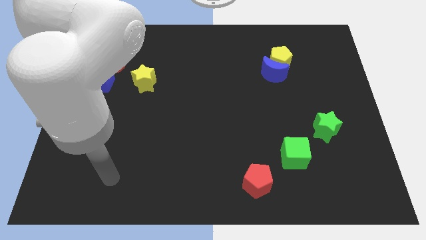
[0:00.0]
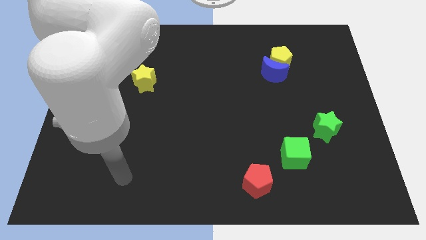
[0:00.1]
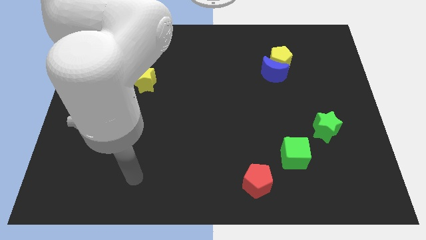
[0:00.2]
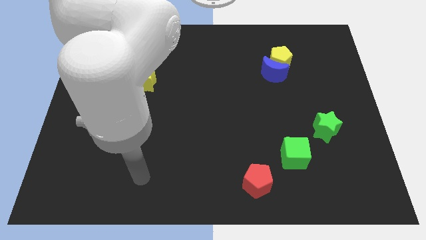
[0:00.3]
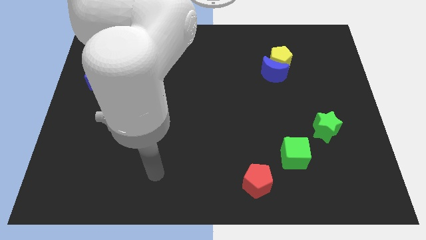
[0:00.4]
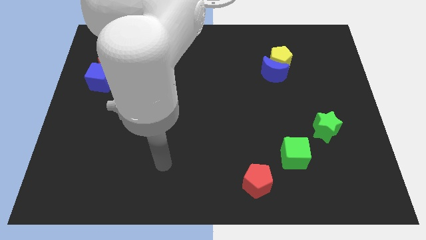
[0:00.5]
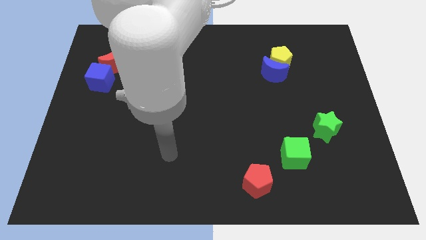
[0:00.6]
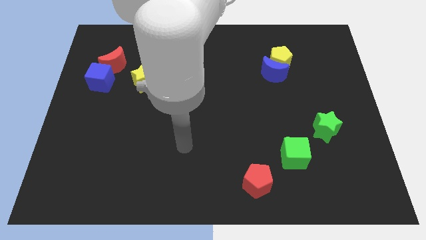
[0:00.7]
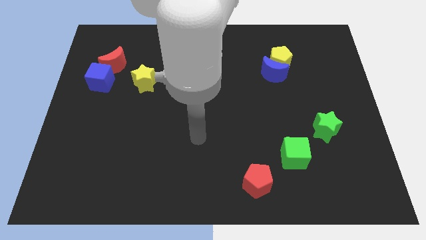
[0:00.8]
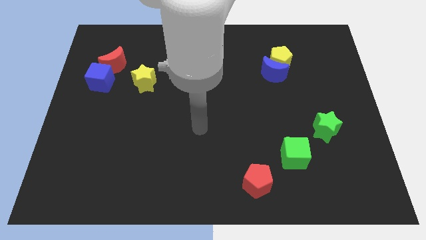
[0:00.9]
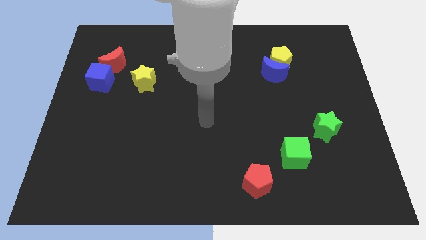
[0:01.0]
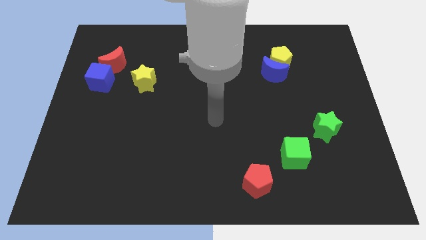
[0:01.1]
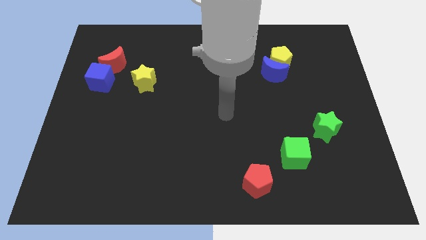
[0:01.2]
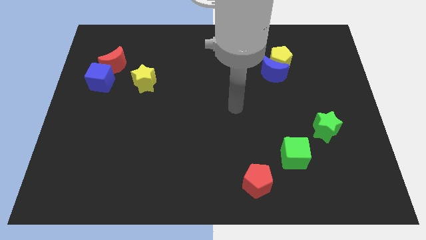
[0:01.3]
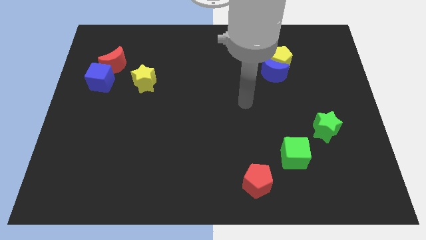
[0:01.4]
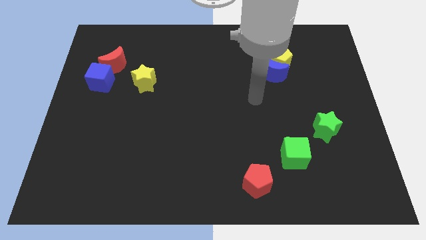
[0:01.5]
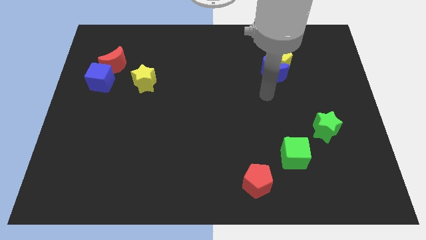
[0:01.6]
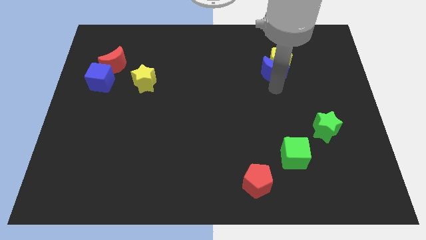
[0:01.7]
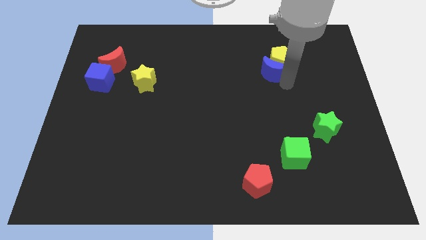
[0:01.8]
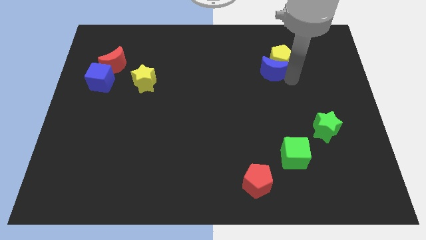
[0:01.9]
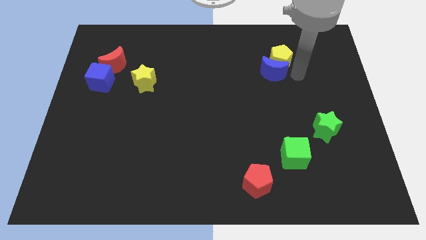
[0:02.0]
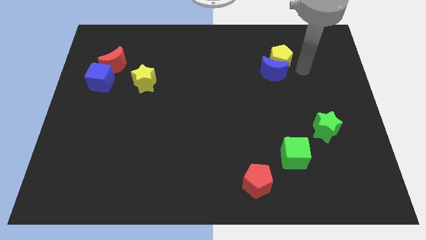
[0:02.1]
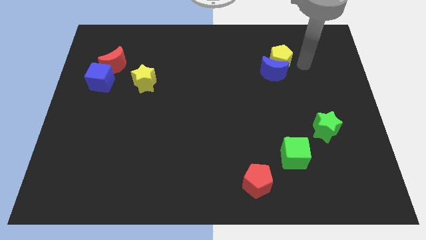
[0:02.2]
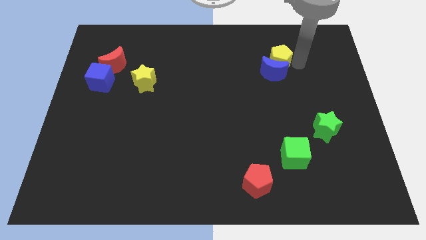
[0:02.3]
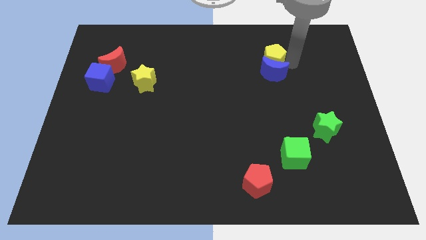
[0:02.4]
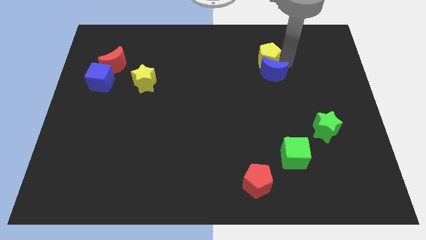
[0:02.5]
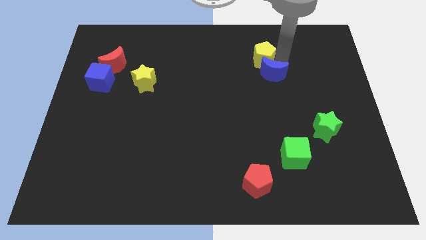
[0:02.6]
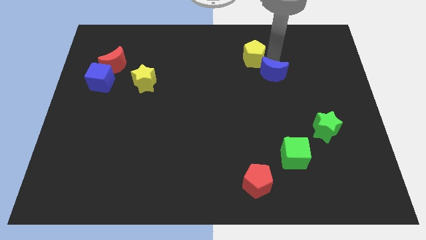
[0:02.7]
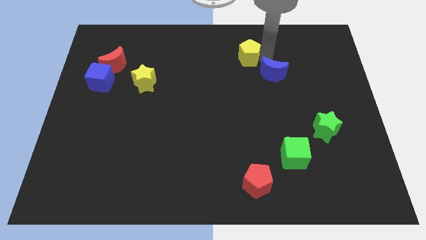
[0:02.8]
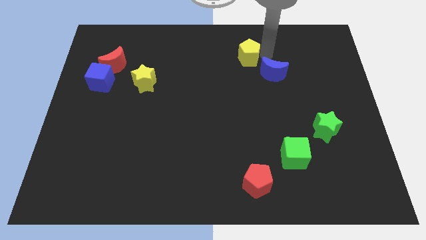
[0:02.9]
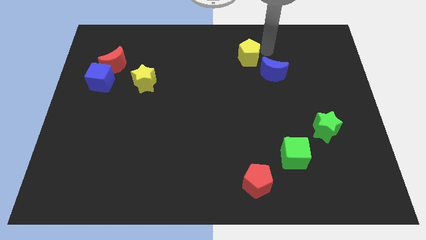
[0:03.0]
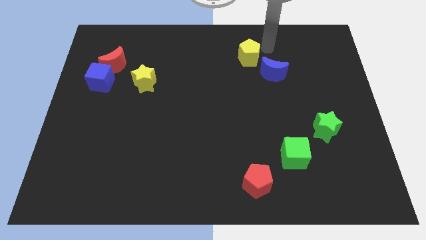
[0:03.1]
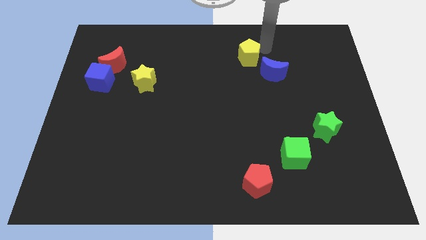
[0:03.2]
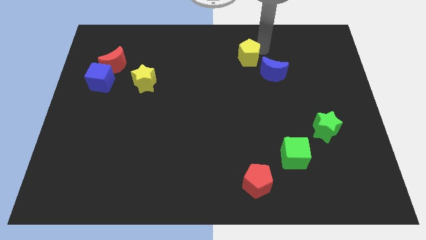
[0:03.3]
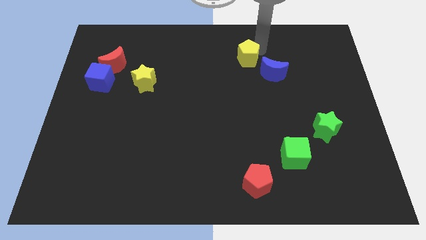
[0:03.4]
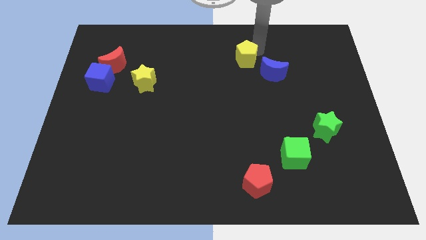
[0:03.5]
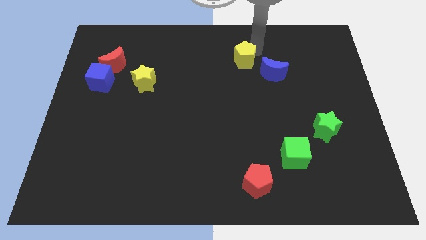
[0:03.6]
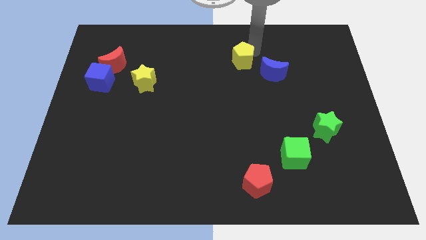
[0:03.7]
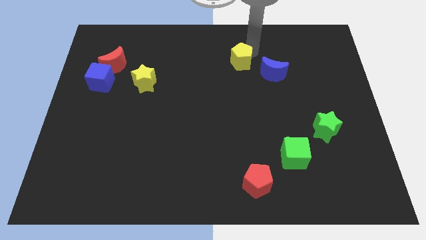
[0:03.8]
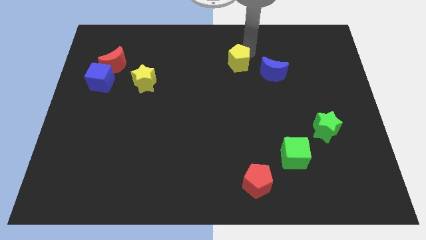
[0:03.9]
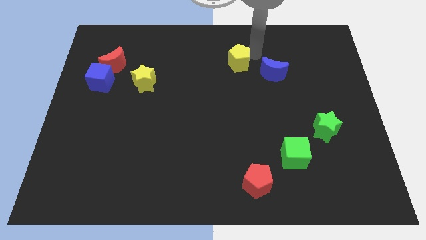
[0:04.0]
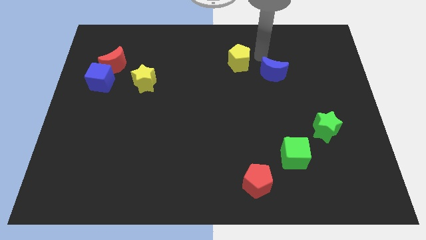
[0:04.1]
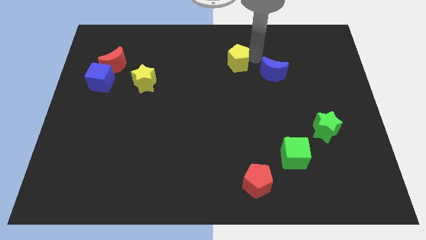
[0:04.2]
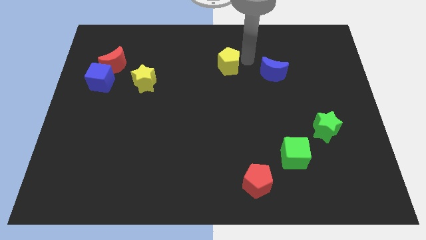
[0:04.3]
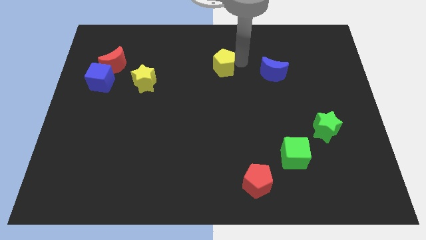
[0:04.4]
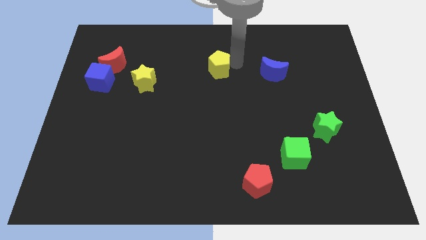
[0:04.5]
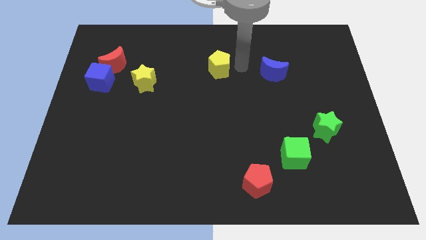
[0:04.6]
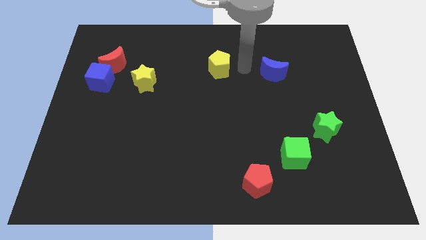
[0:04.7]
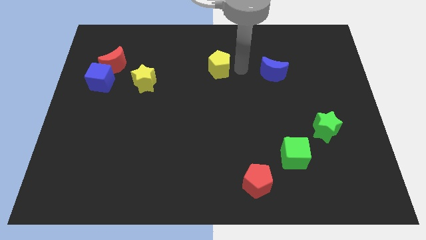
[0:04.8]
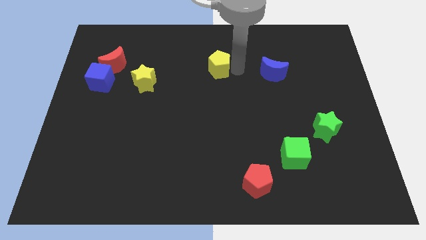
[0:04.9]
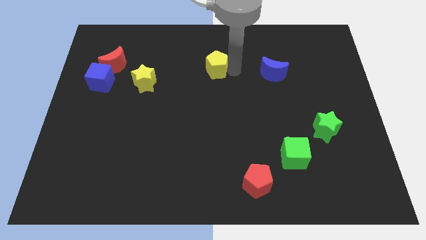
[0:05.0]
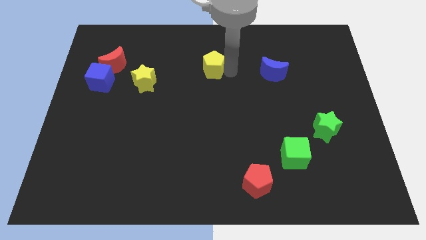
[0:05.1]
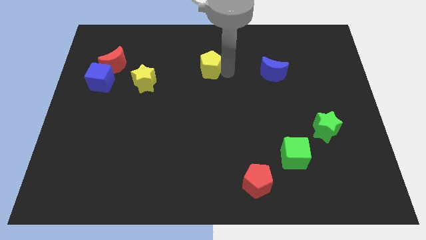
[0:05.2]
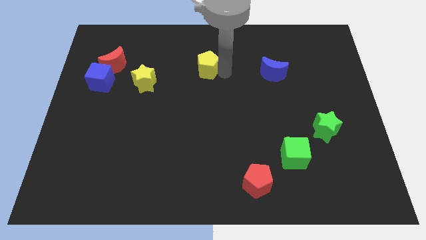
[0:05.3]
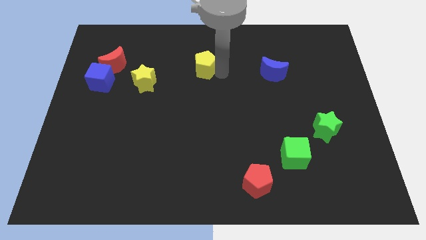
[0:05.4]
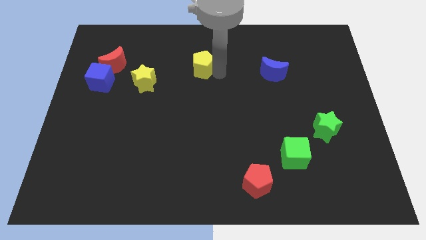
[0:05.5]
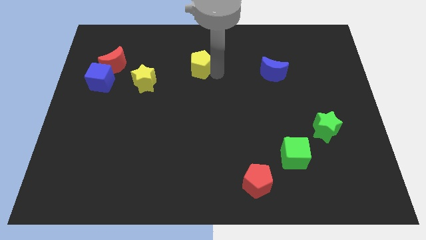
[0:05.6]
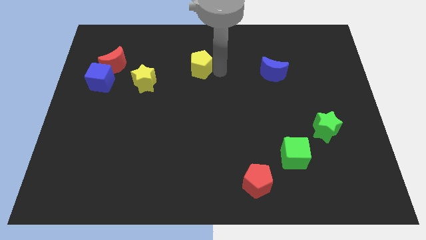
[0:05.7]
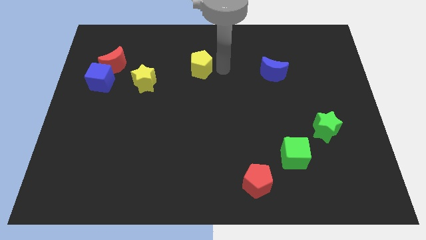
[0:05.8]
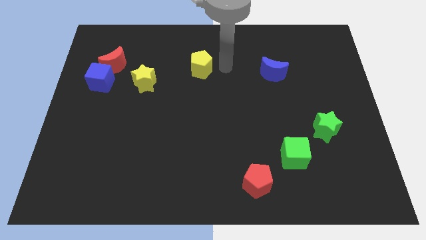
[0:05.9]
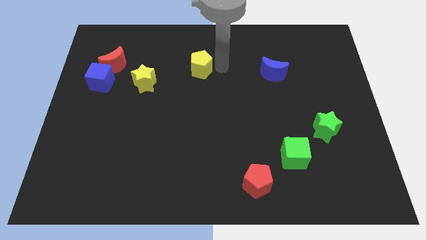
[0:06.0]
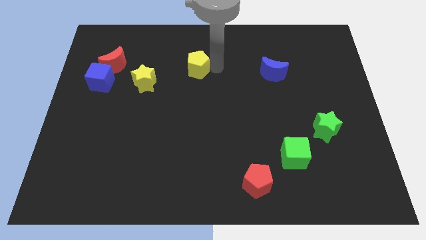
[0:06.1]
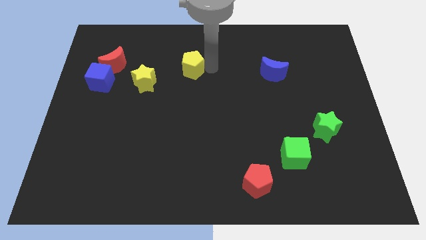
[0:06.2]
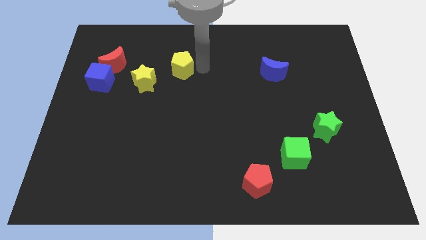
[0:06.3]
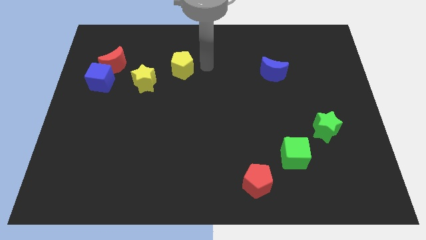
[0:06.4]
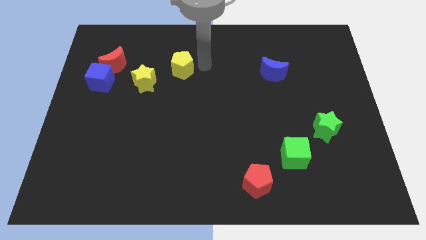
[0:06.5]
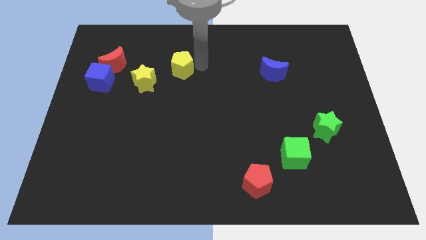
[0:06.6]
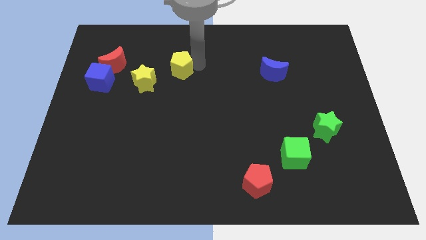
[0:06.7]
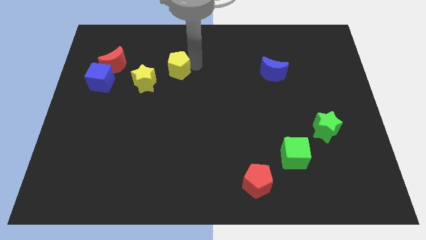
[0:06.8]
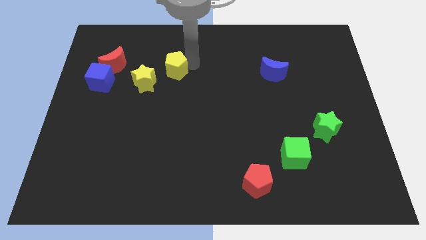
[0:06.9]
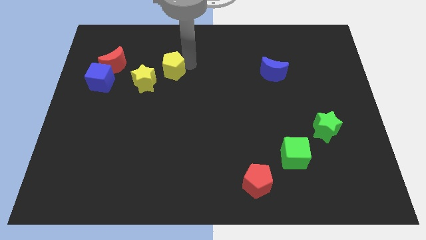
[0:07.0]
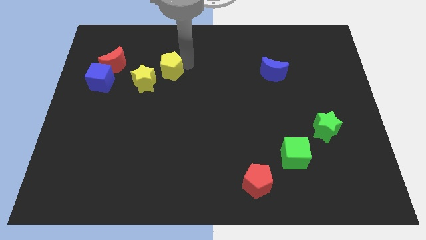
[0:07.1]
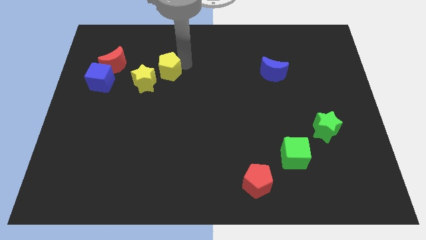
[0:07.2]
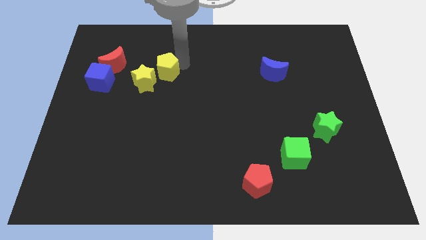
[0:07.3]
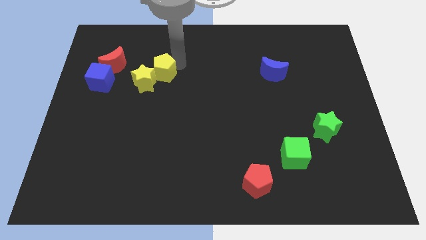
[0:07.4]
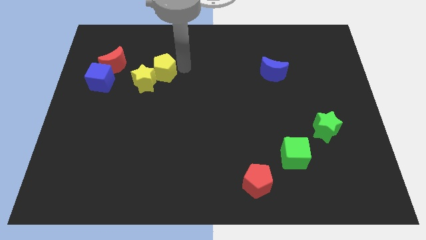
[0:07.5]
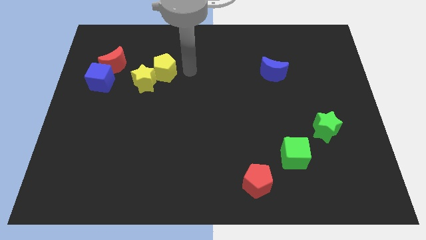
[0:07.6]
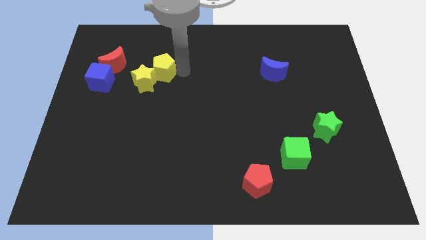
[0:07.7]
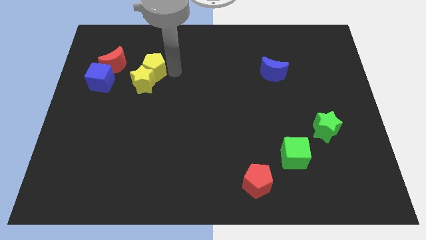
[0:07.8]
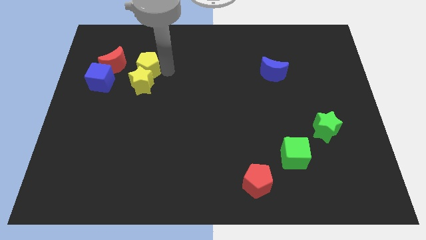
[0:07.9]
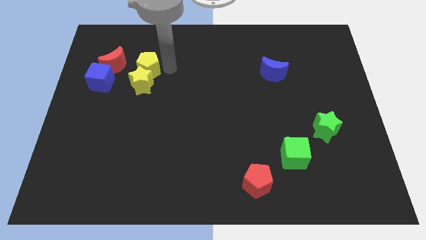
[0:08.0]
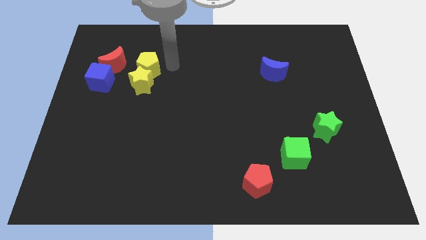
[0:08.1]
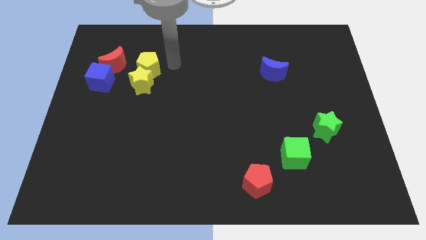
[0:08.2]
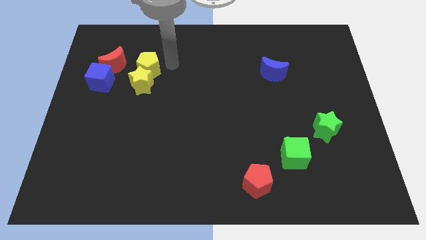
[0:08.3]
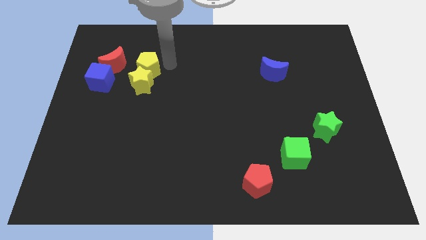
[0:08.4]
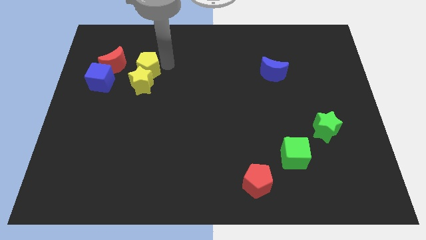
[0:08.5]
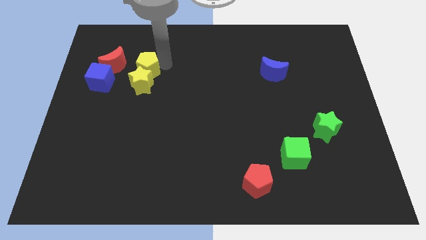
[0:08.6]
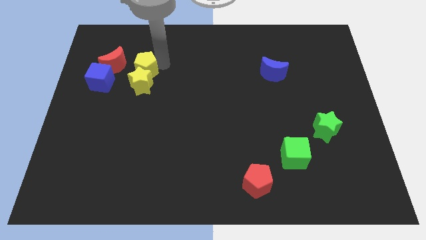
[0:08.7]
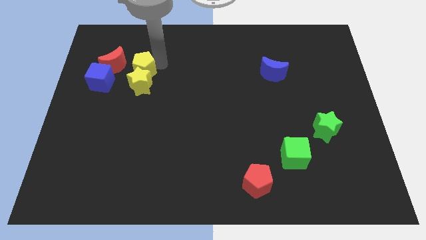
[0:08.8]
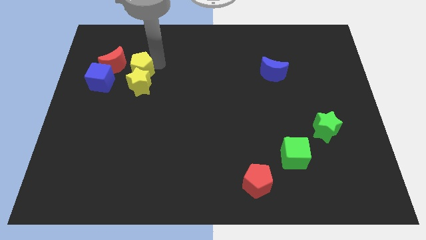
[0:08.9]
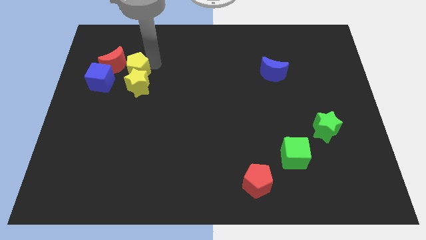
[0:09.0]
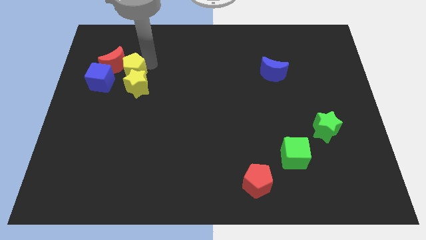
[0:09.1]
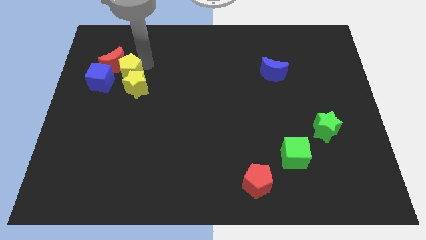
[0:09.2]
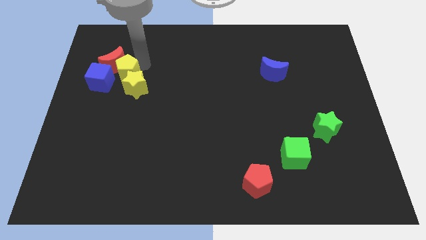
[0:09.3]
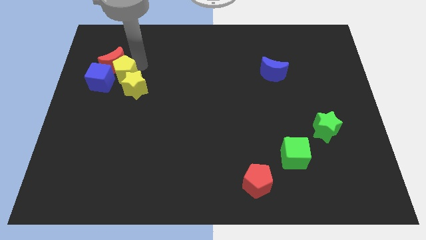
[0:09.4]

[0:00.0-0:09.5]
slide the yellow pentagon close to the blue cube
